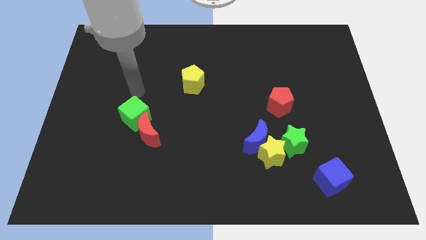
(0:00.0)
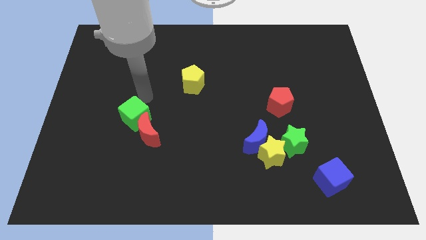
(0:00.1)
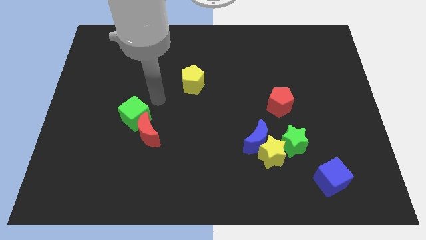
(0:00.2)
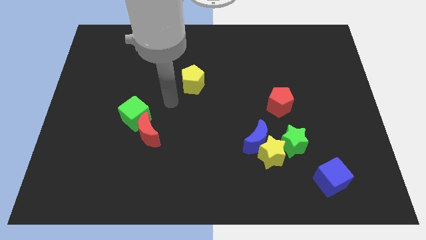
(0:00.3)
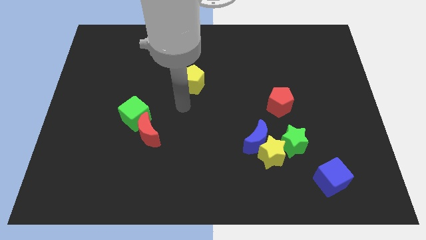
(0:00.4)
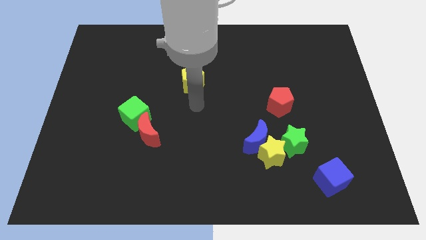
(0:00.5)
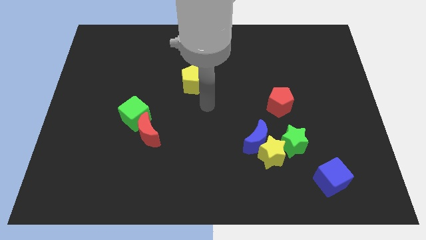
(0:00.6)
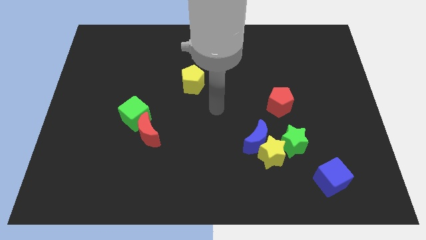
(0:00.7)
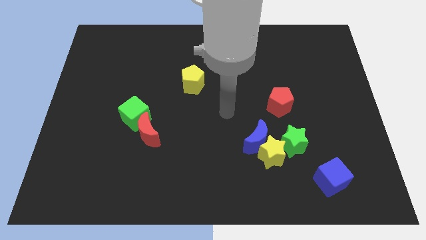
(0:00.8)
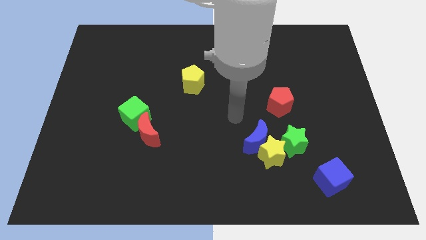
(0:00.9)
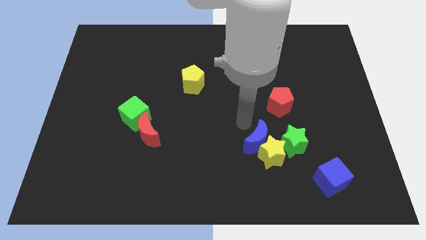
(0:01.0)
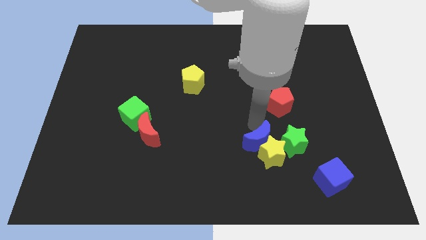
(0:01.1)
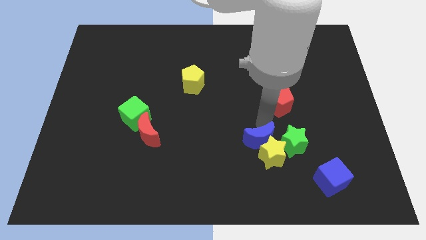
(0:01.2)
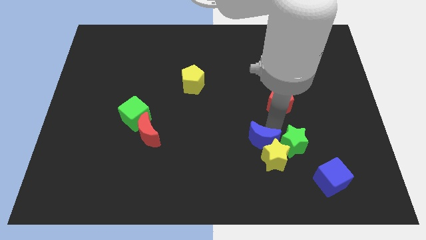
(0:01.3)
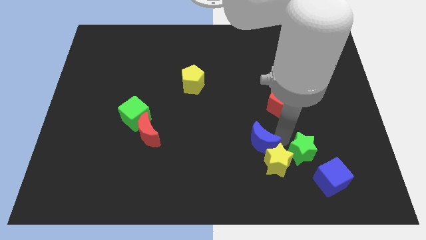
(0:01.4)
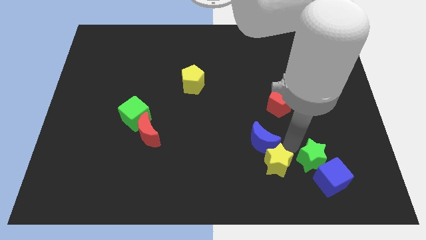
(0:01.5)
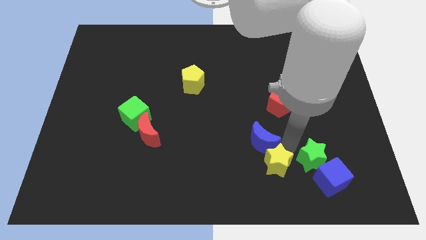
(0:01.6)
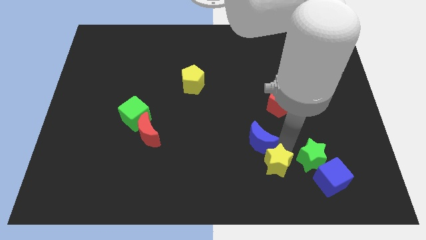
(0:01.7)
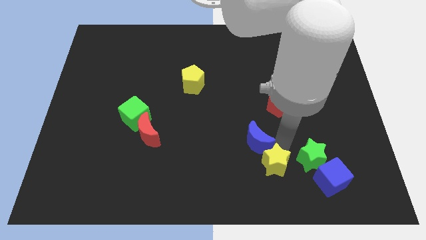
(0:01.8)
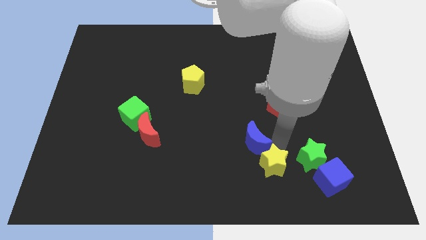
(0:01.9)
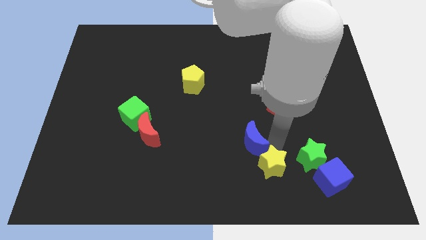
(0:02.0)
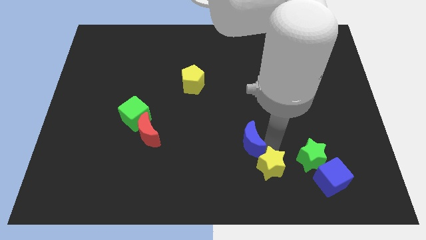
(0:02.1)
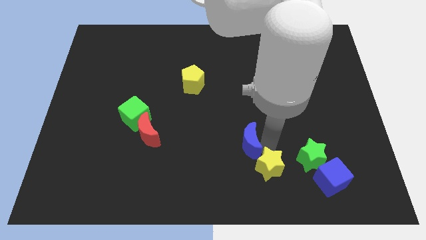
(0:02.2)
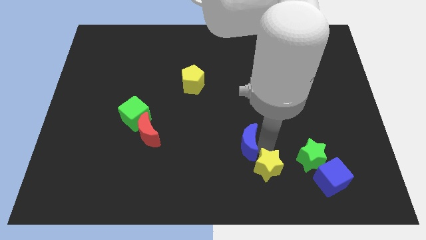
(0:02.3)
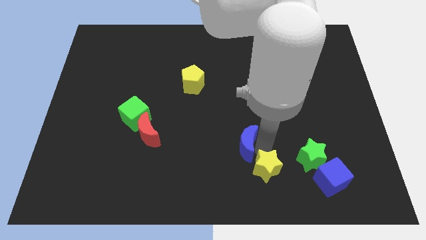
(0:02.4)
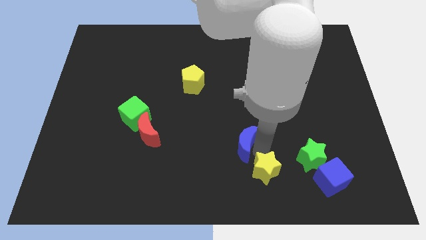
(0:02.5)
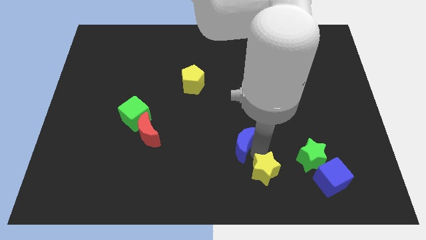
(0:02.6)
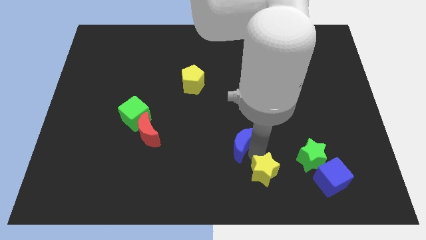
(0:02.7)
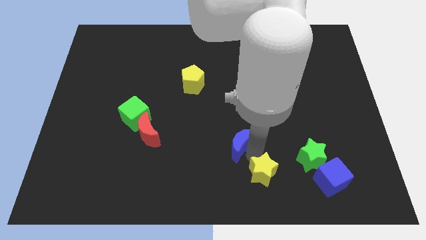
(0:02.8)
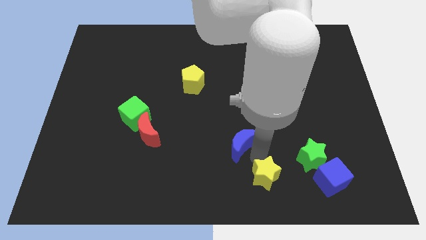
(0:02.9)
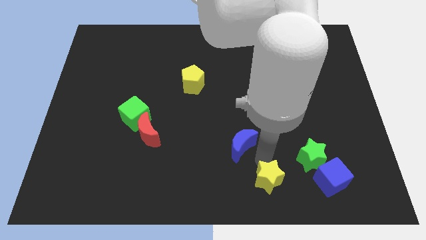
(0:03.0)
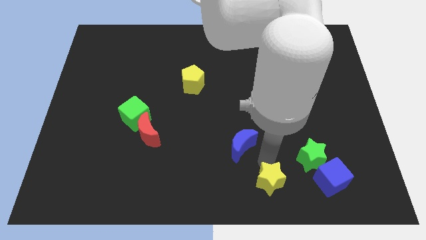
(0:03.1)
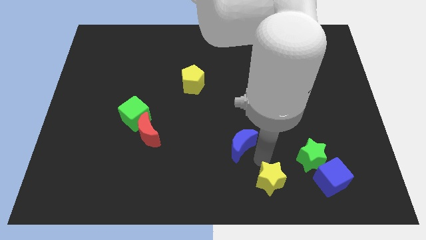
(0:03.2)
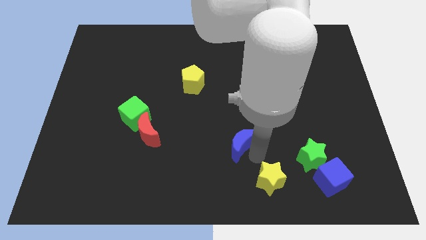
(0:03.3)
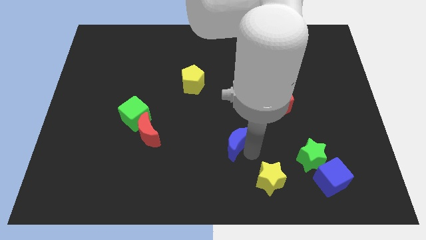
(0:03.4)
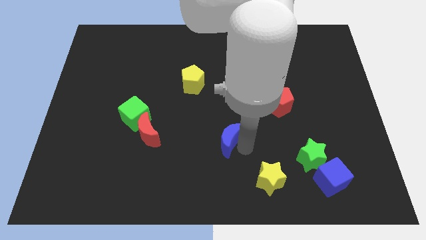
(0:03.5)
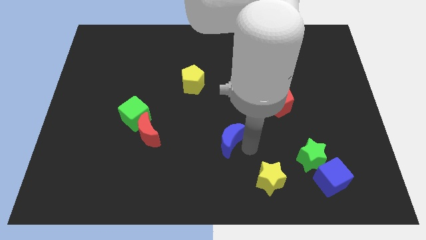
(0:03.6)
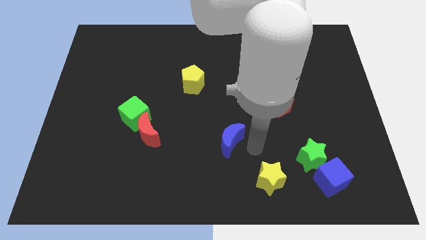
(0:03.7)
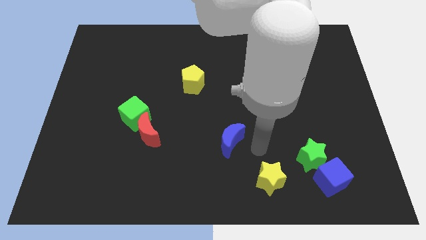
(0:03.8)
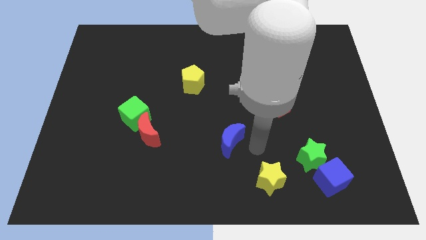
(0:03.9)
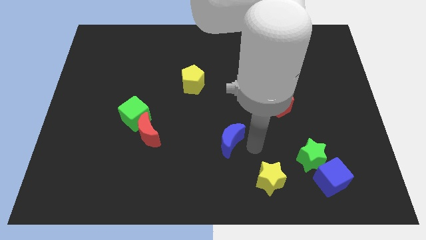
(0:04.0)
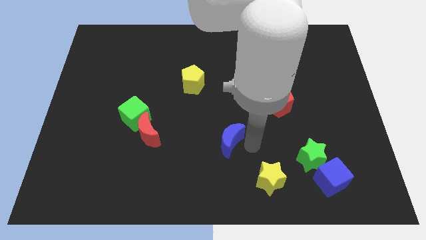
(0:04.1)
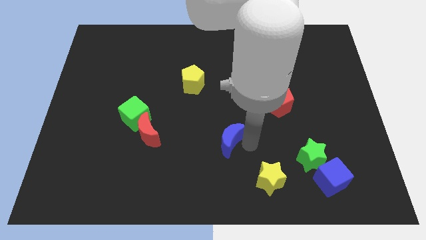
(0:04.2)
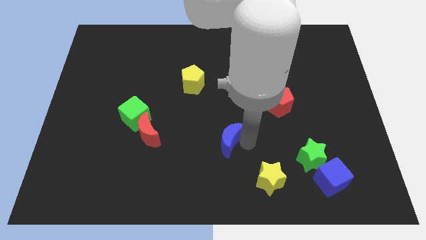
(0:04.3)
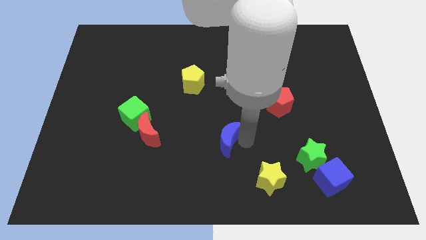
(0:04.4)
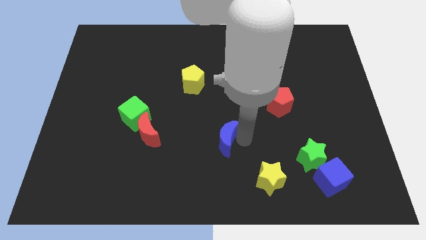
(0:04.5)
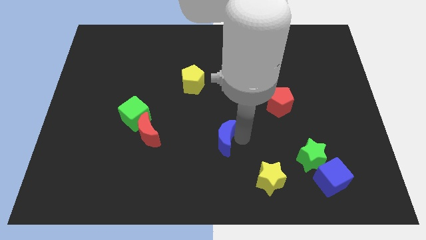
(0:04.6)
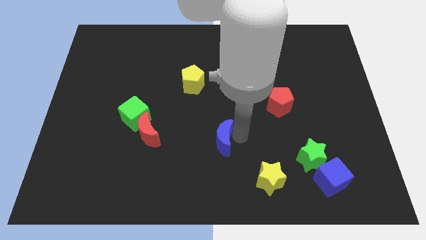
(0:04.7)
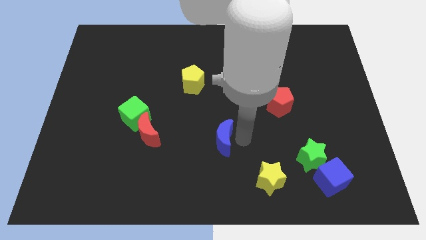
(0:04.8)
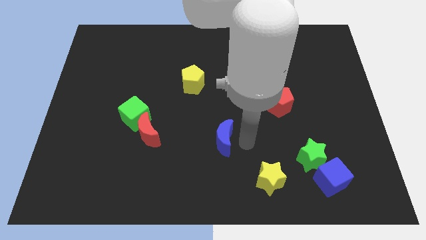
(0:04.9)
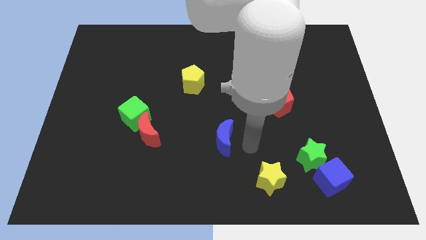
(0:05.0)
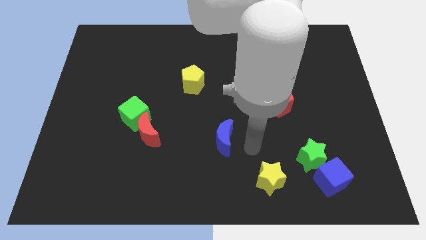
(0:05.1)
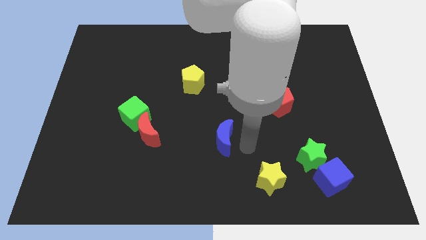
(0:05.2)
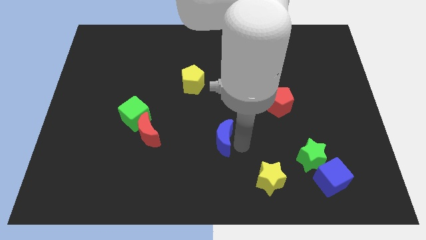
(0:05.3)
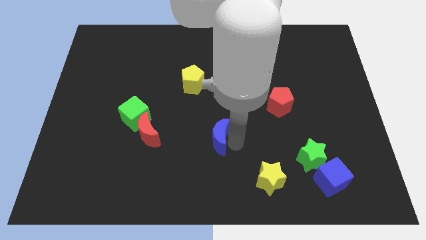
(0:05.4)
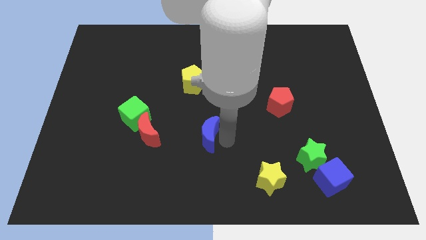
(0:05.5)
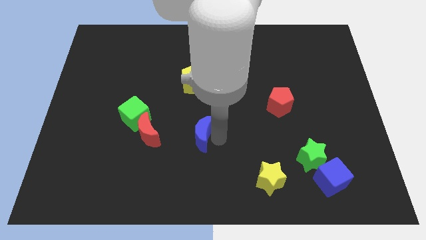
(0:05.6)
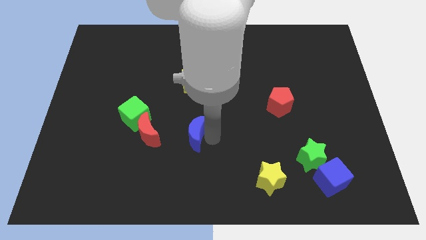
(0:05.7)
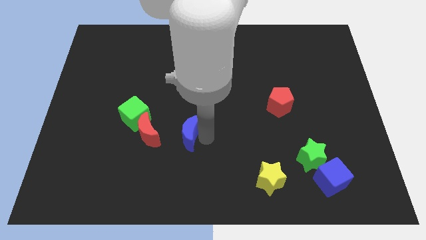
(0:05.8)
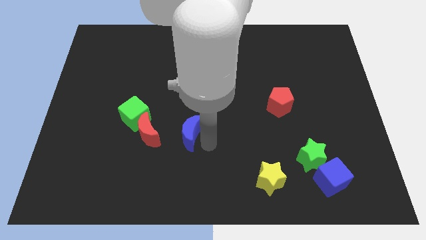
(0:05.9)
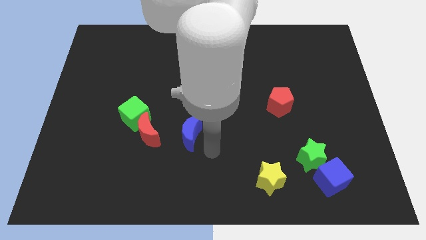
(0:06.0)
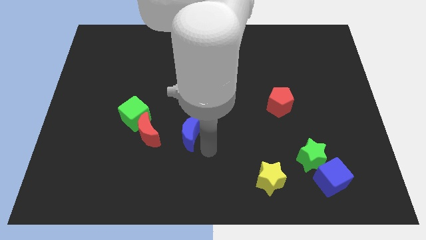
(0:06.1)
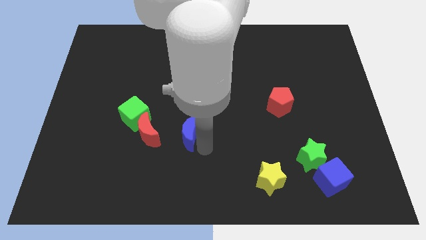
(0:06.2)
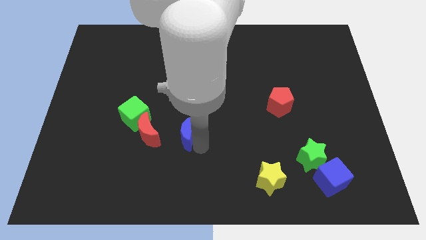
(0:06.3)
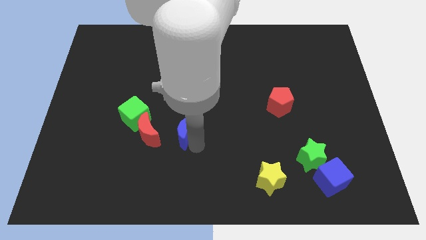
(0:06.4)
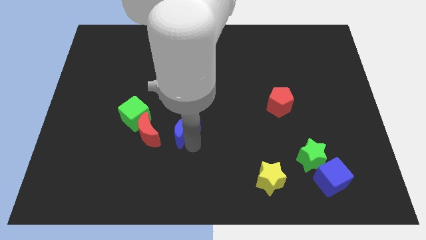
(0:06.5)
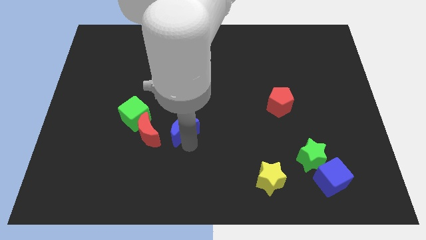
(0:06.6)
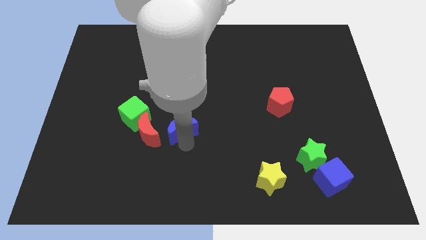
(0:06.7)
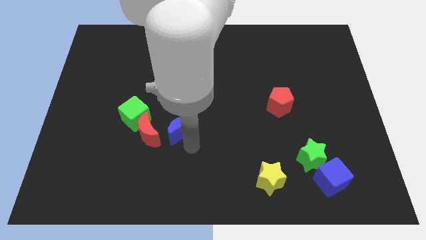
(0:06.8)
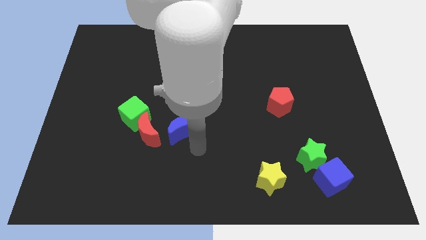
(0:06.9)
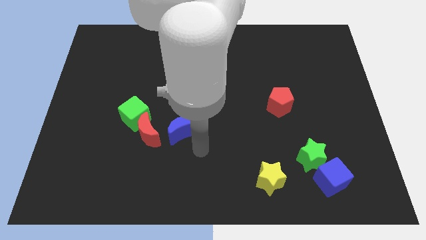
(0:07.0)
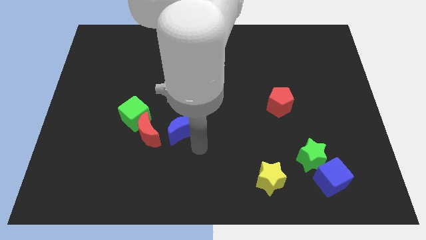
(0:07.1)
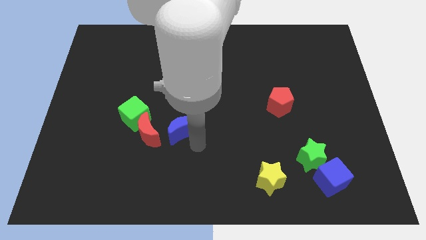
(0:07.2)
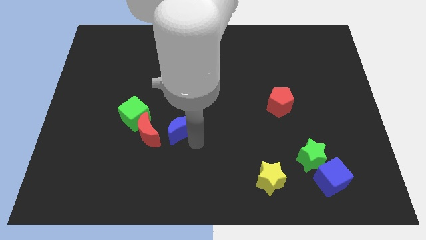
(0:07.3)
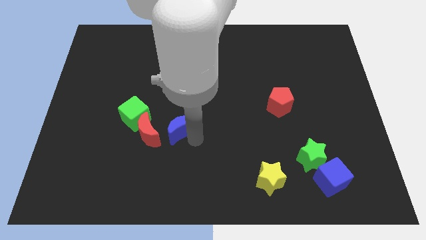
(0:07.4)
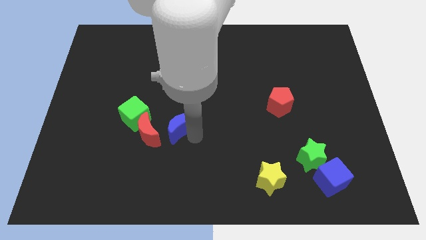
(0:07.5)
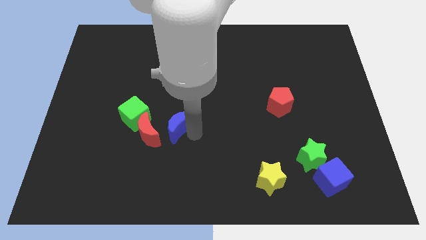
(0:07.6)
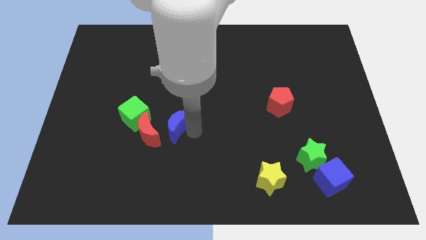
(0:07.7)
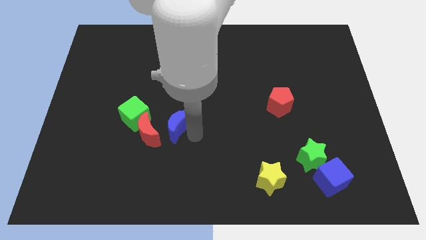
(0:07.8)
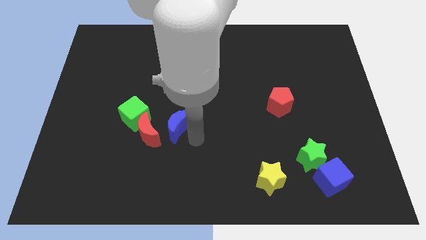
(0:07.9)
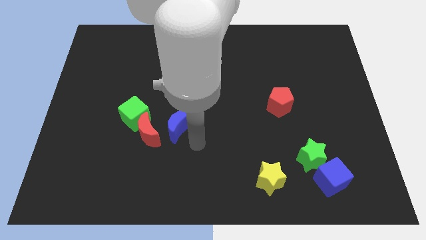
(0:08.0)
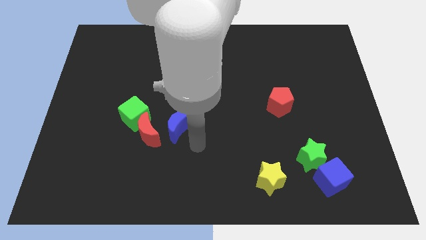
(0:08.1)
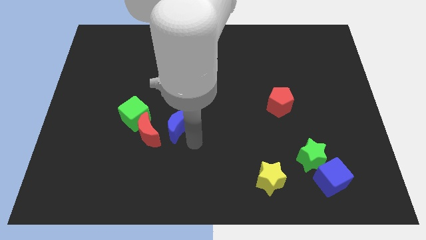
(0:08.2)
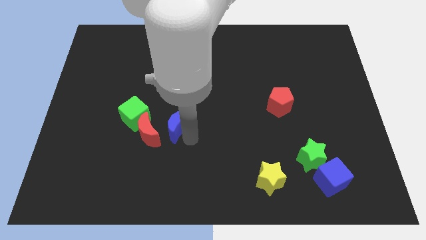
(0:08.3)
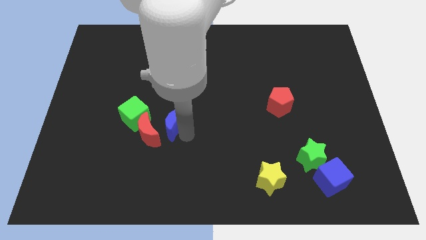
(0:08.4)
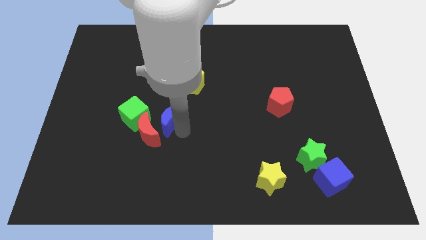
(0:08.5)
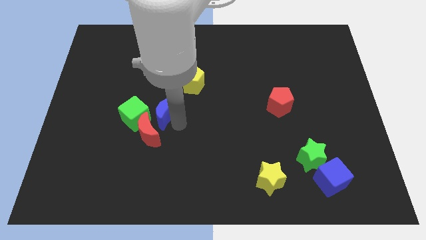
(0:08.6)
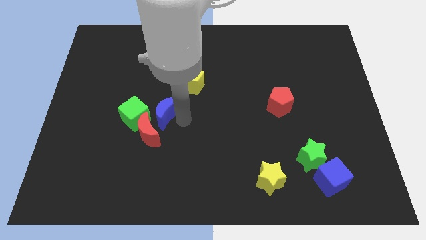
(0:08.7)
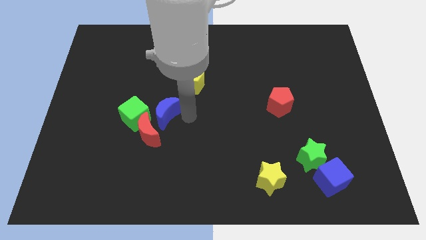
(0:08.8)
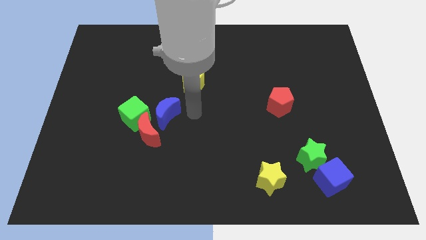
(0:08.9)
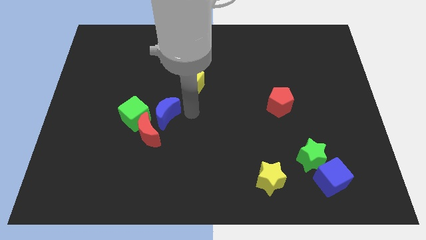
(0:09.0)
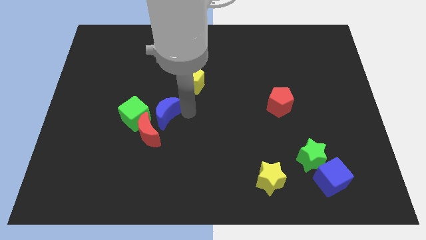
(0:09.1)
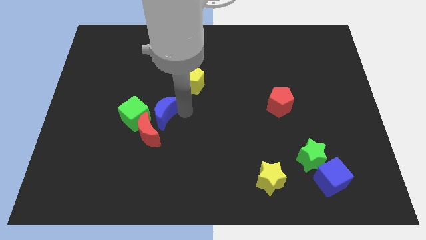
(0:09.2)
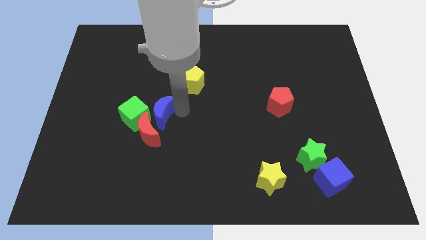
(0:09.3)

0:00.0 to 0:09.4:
put the blue moon close to the green cube
